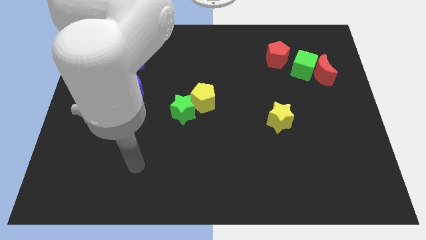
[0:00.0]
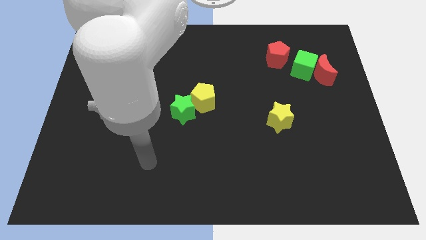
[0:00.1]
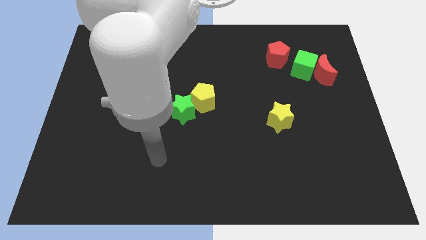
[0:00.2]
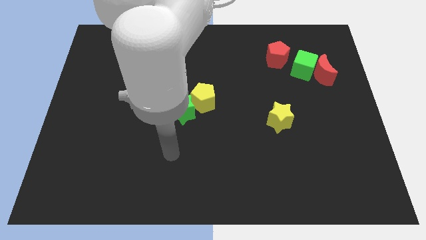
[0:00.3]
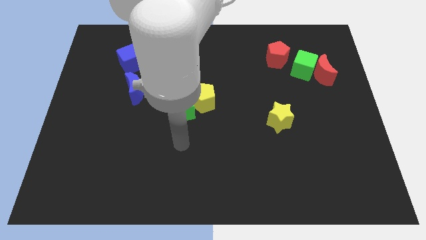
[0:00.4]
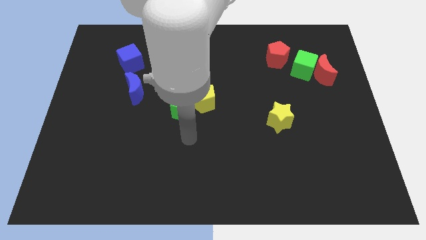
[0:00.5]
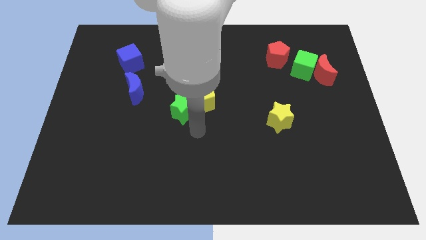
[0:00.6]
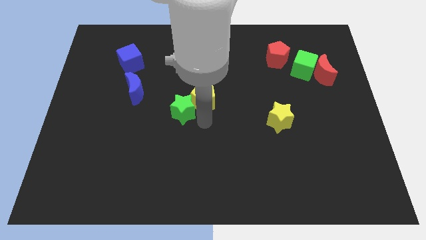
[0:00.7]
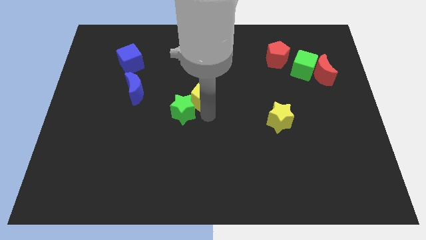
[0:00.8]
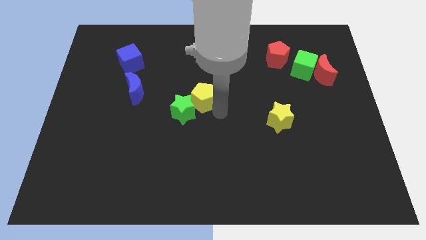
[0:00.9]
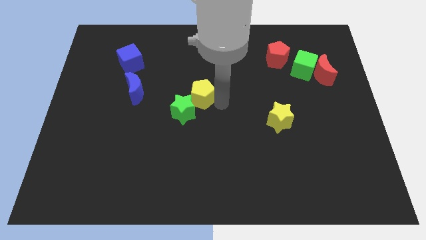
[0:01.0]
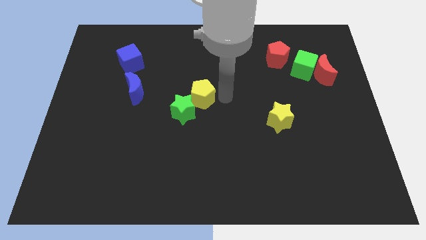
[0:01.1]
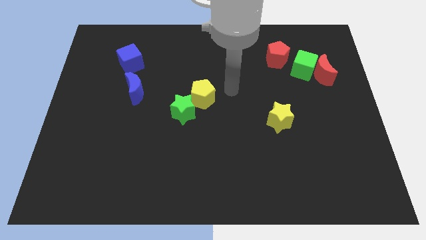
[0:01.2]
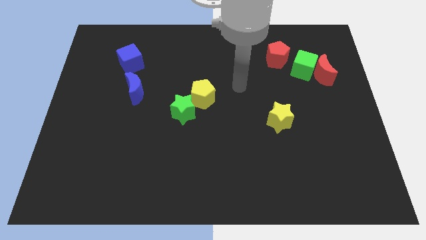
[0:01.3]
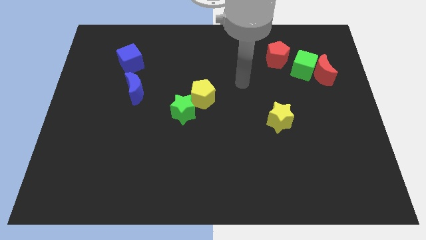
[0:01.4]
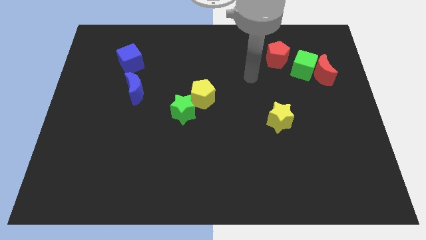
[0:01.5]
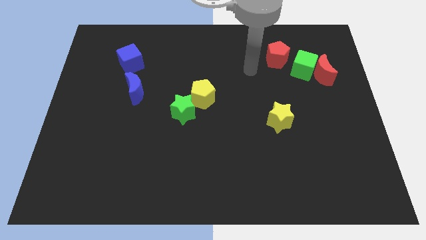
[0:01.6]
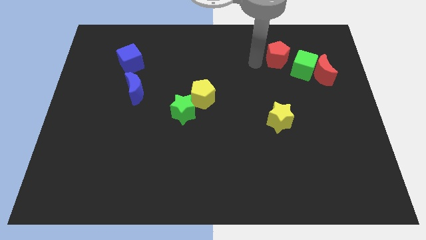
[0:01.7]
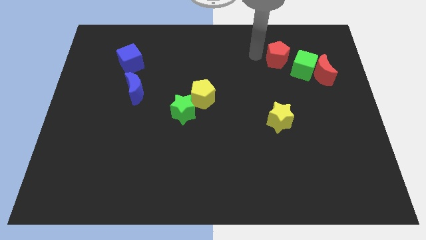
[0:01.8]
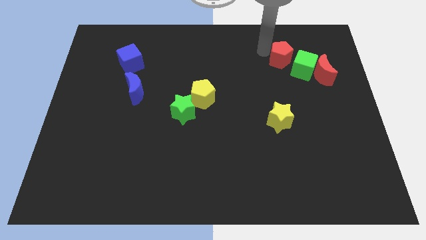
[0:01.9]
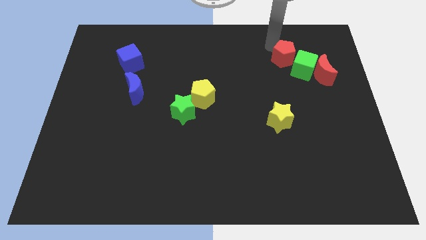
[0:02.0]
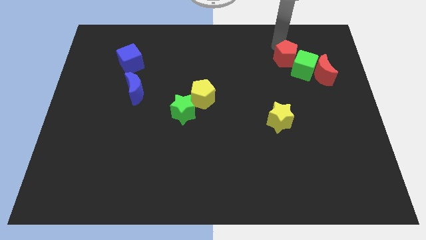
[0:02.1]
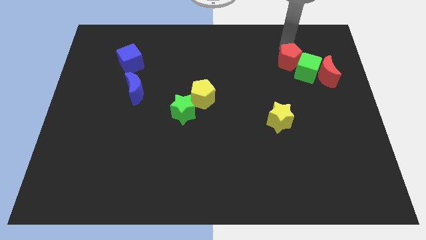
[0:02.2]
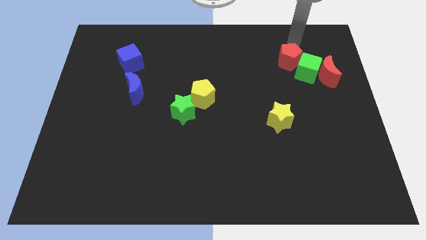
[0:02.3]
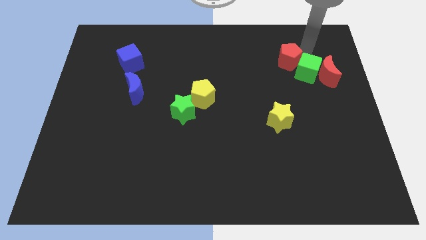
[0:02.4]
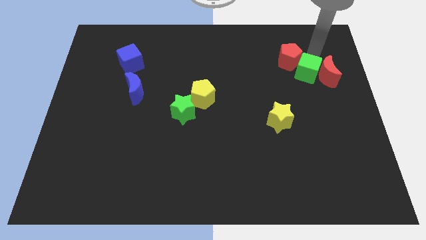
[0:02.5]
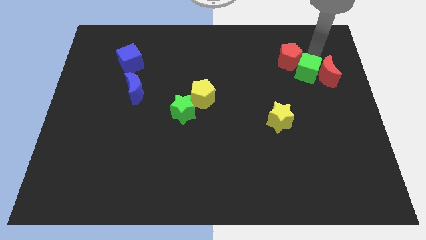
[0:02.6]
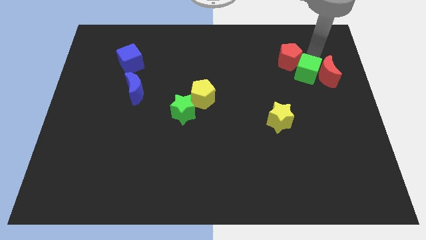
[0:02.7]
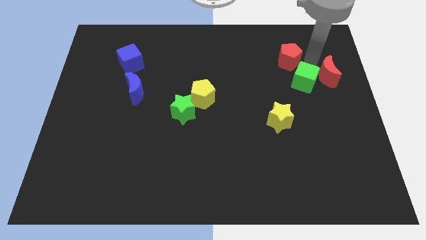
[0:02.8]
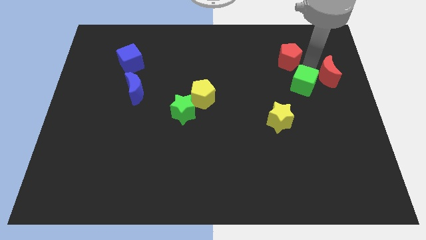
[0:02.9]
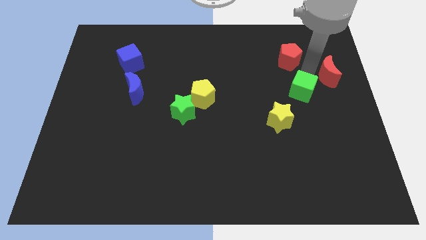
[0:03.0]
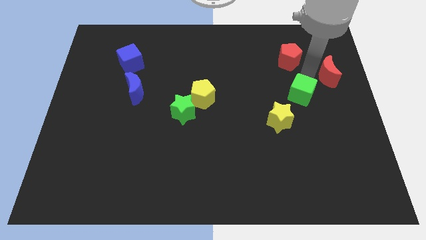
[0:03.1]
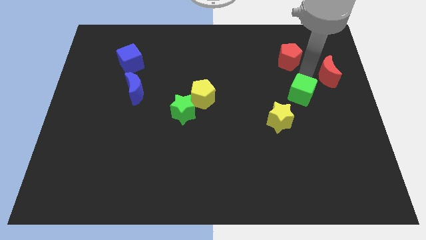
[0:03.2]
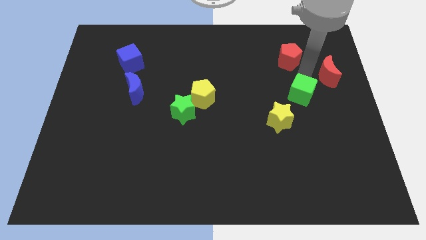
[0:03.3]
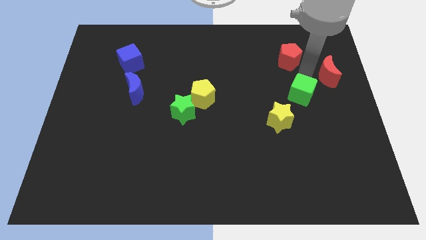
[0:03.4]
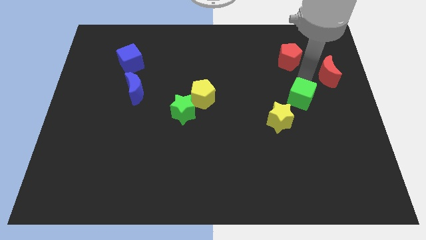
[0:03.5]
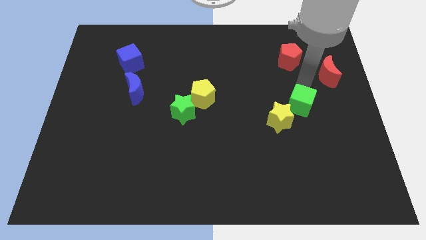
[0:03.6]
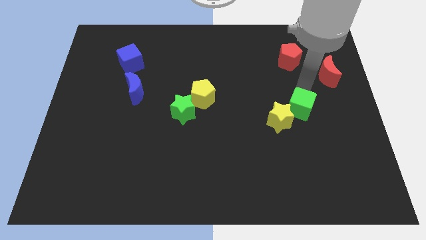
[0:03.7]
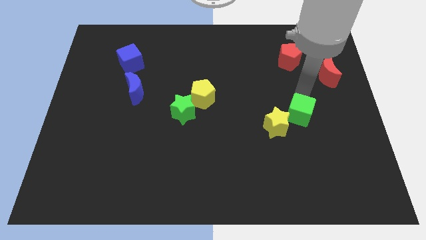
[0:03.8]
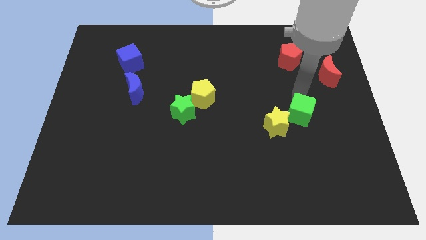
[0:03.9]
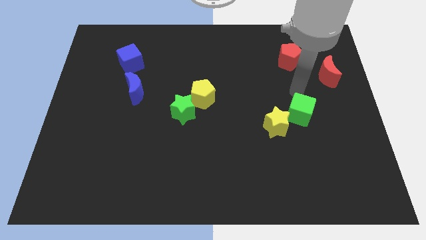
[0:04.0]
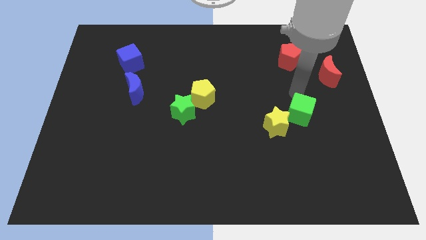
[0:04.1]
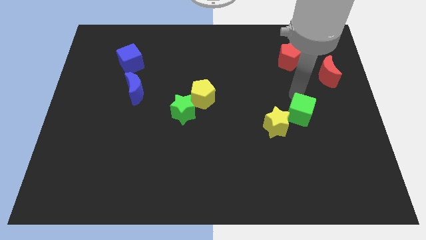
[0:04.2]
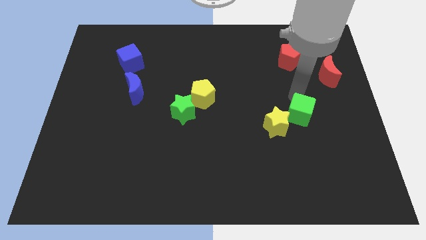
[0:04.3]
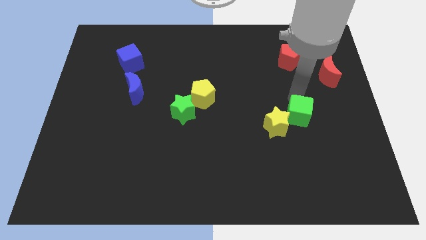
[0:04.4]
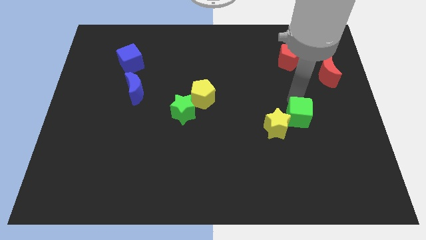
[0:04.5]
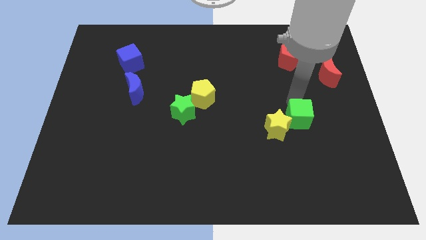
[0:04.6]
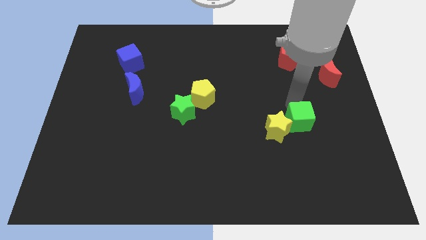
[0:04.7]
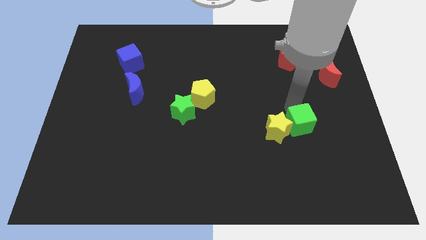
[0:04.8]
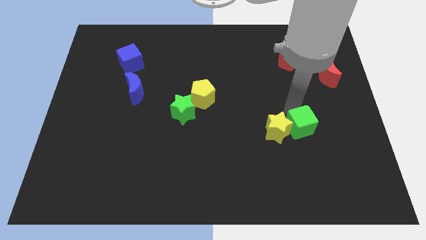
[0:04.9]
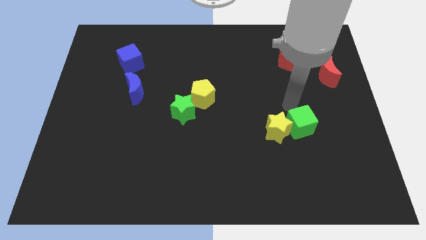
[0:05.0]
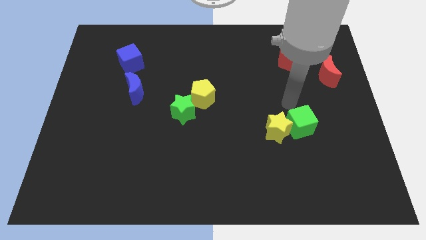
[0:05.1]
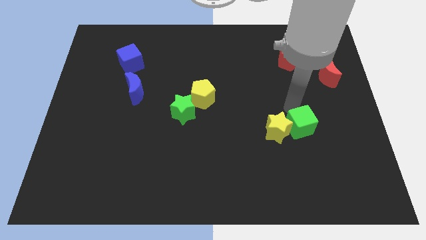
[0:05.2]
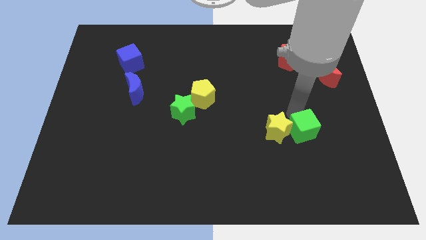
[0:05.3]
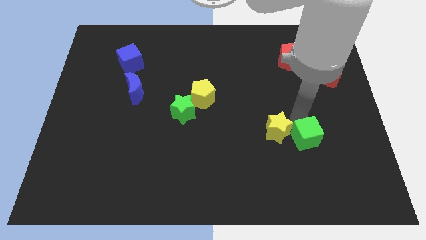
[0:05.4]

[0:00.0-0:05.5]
slide the green cube downwards

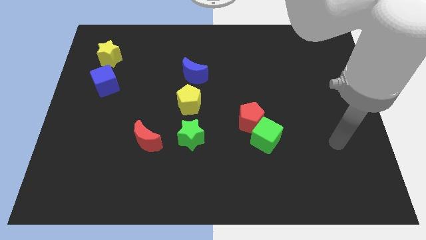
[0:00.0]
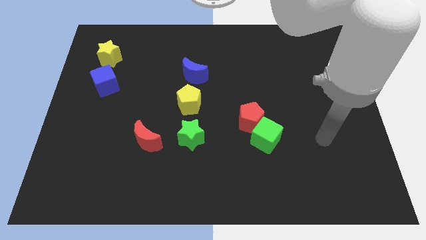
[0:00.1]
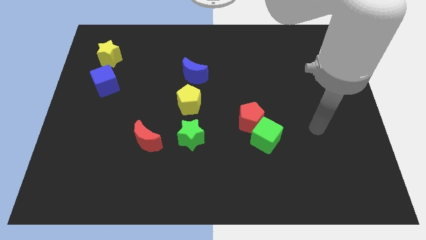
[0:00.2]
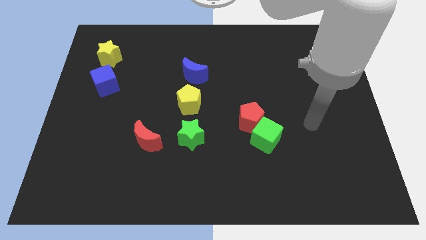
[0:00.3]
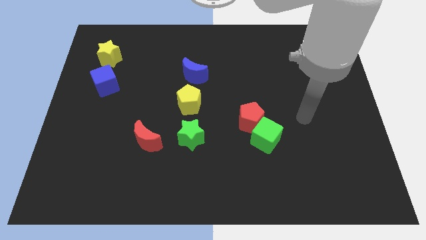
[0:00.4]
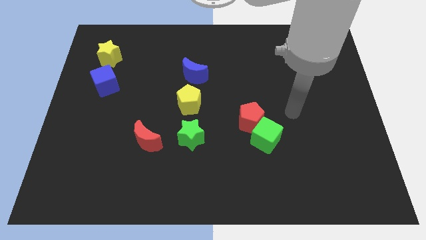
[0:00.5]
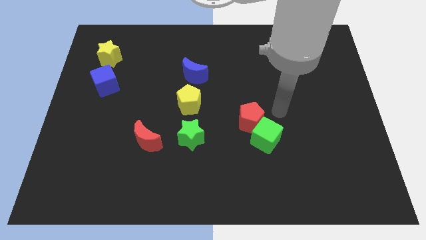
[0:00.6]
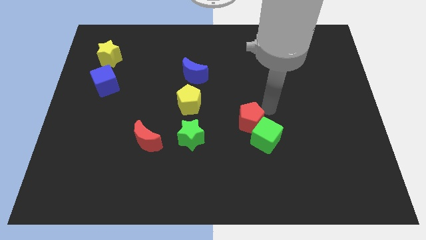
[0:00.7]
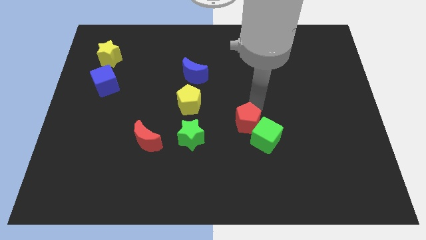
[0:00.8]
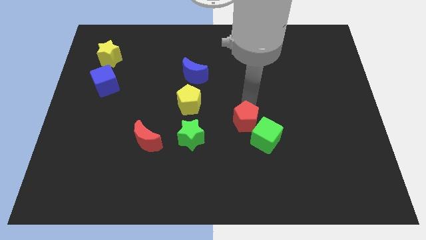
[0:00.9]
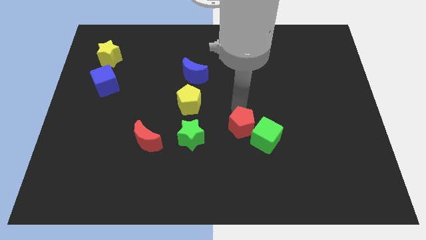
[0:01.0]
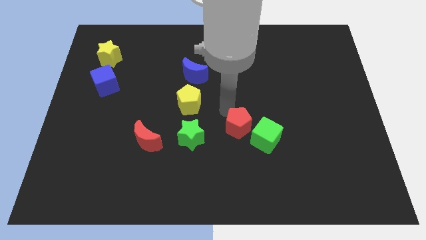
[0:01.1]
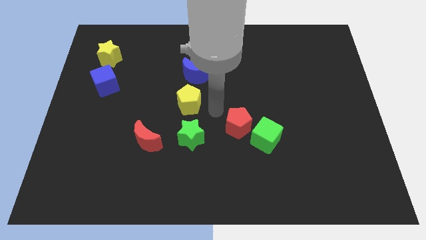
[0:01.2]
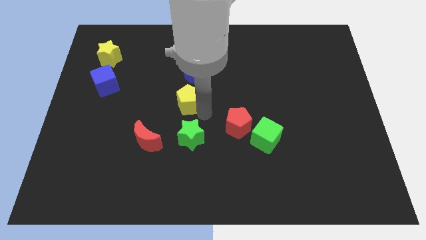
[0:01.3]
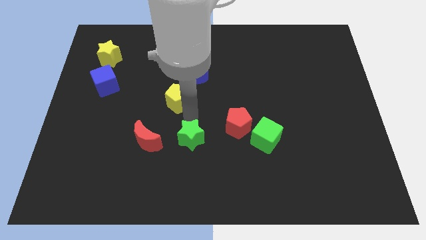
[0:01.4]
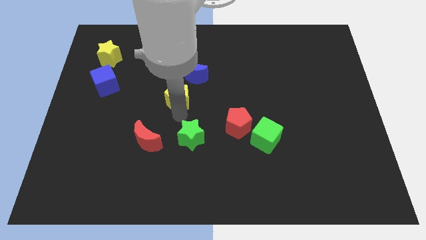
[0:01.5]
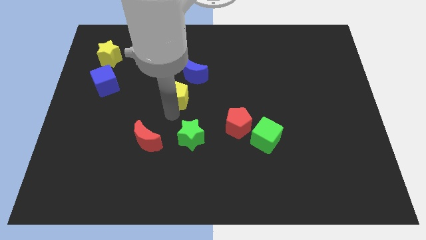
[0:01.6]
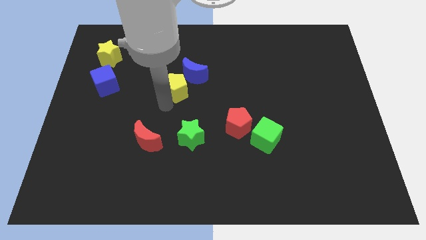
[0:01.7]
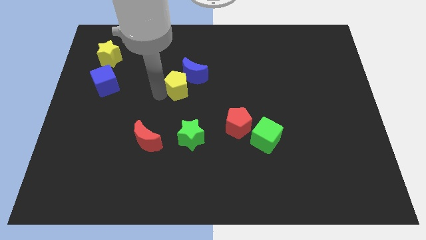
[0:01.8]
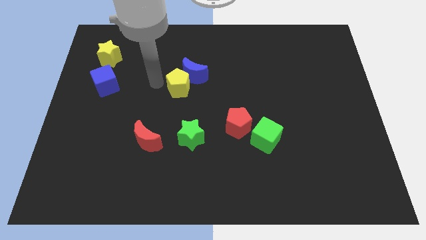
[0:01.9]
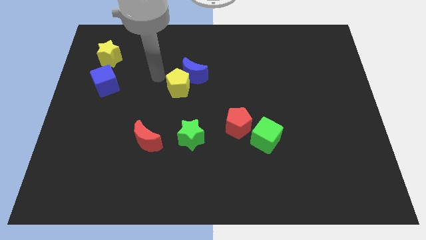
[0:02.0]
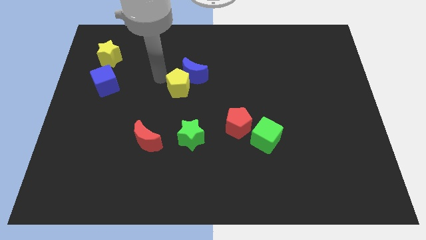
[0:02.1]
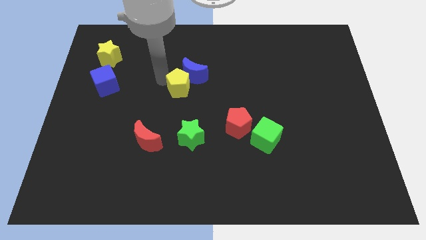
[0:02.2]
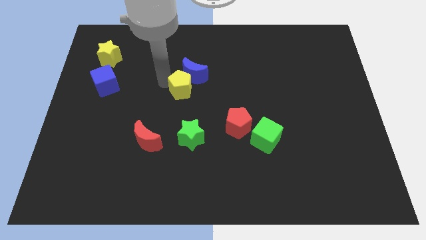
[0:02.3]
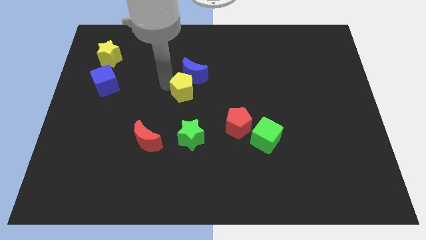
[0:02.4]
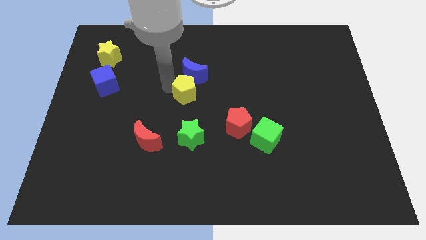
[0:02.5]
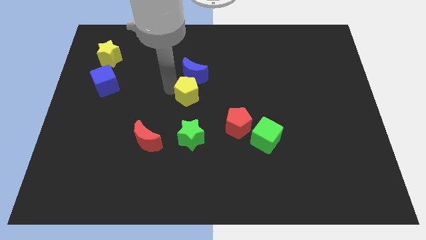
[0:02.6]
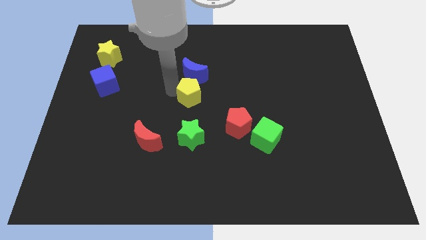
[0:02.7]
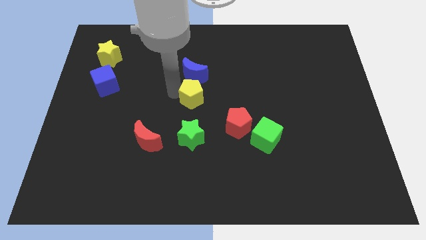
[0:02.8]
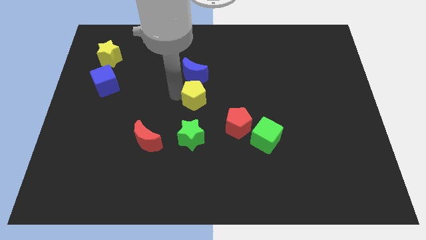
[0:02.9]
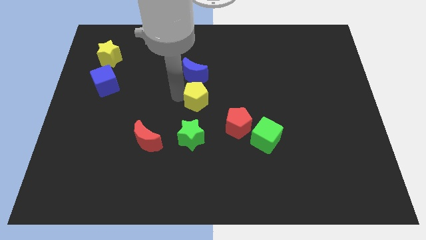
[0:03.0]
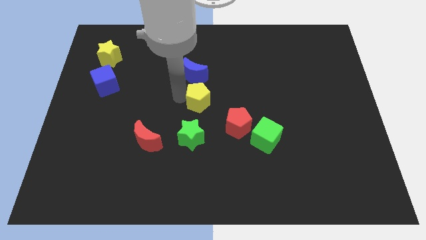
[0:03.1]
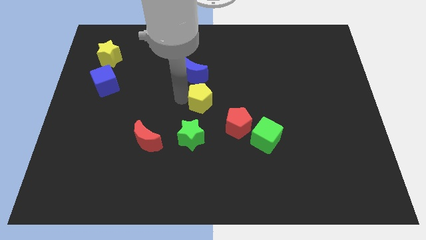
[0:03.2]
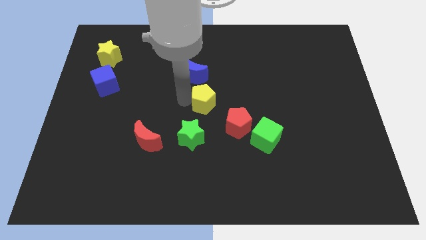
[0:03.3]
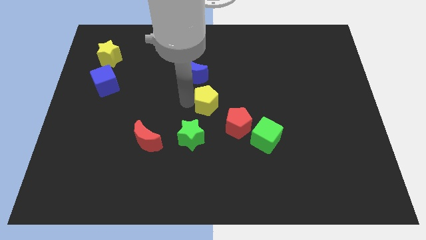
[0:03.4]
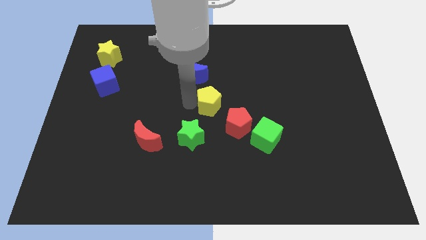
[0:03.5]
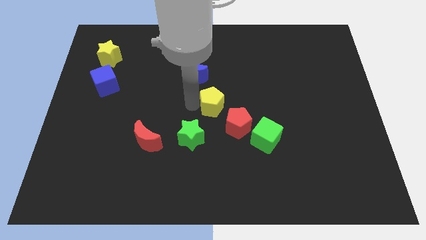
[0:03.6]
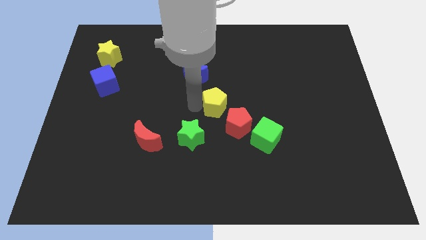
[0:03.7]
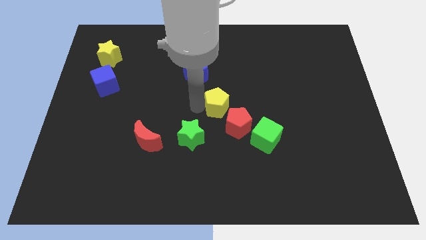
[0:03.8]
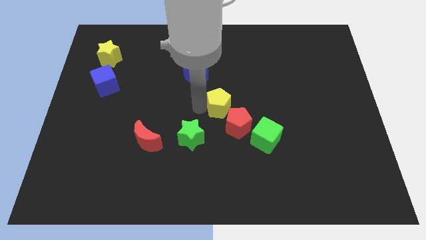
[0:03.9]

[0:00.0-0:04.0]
push the yellow pentagon to the right somewhat
